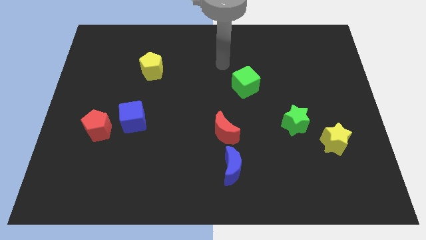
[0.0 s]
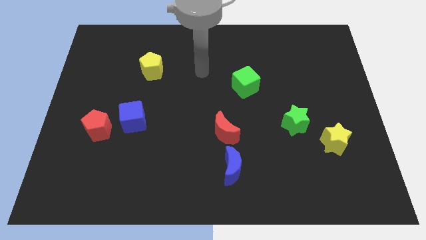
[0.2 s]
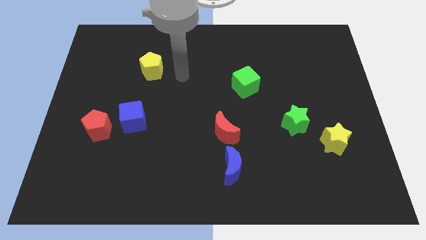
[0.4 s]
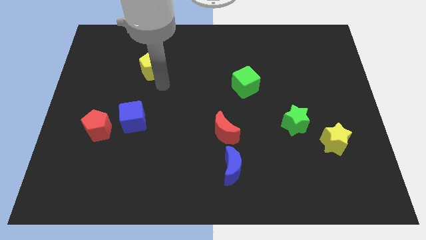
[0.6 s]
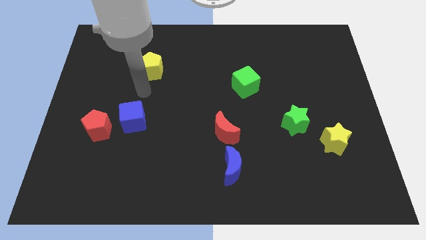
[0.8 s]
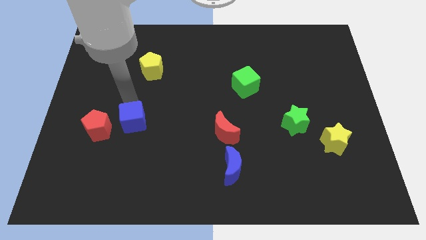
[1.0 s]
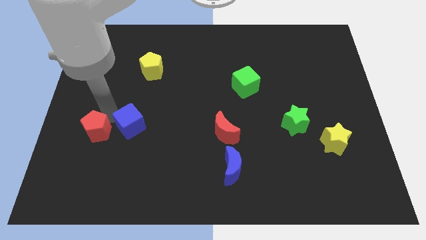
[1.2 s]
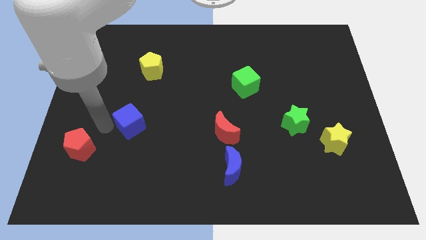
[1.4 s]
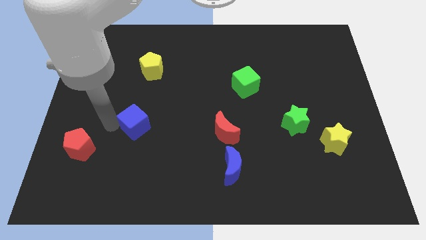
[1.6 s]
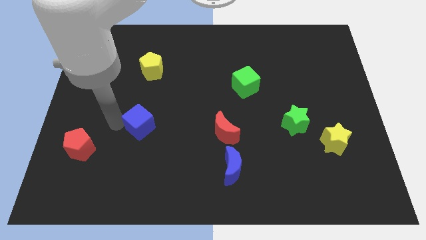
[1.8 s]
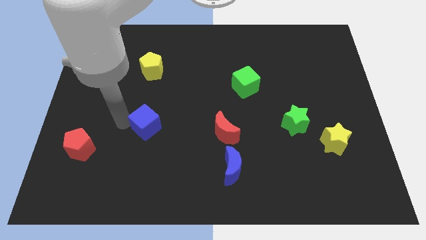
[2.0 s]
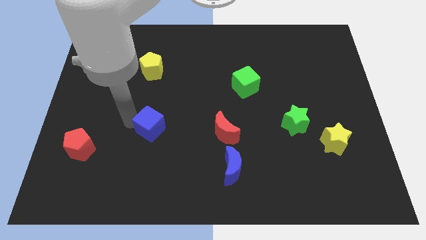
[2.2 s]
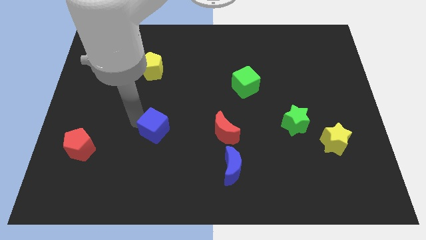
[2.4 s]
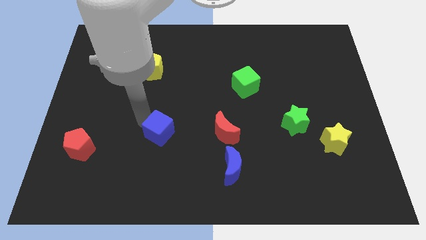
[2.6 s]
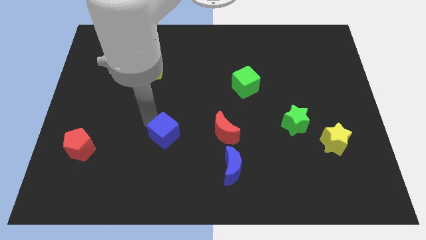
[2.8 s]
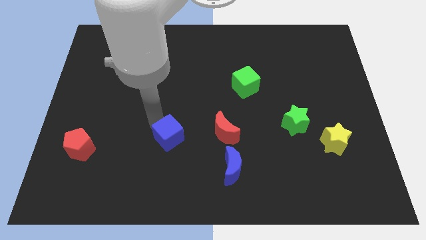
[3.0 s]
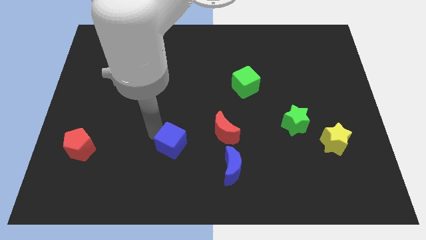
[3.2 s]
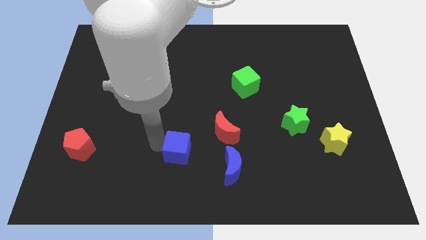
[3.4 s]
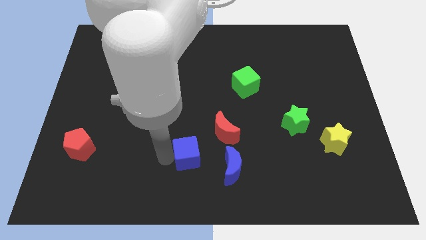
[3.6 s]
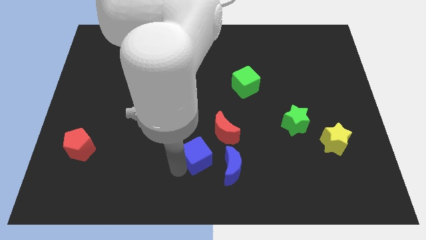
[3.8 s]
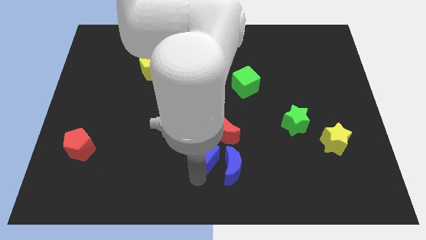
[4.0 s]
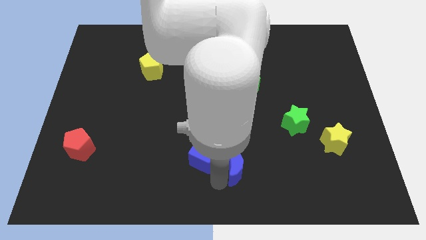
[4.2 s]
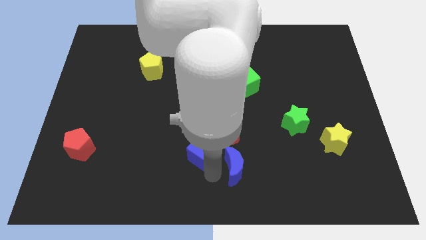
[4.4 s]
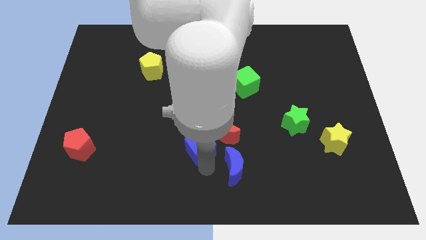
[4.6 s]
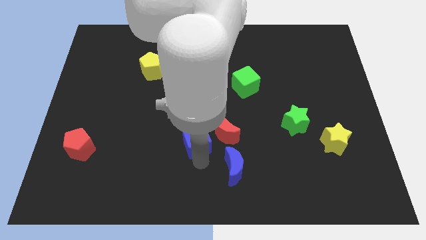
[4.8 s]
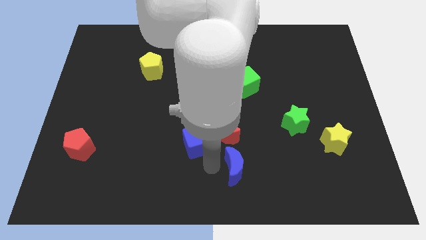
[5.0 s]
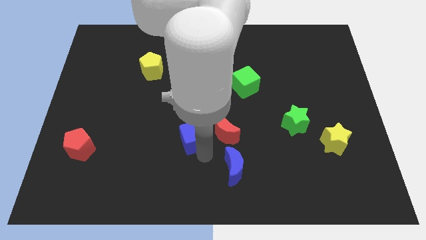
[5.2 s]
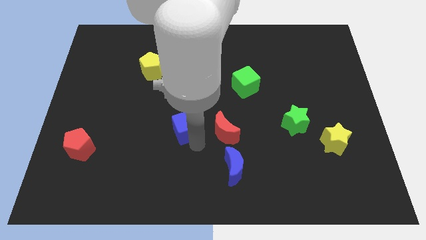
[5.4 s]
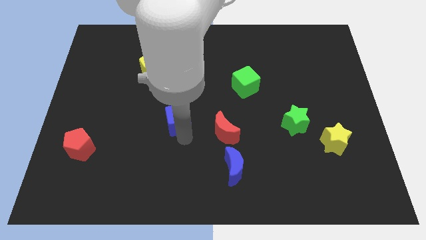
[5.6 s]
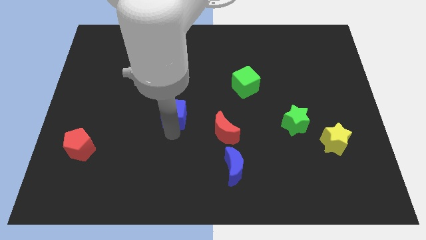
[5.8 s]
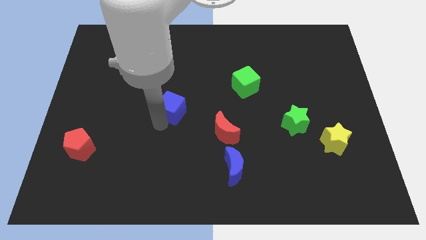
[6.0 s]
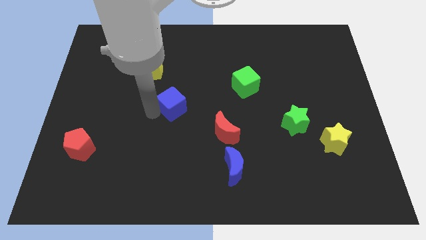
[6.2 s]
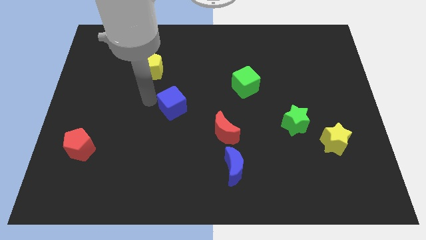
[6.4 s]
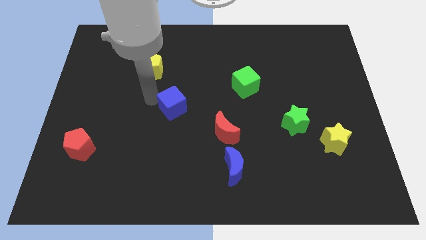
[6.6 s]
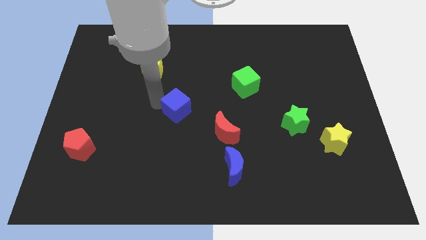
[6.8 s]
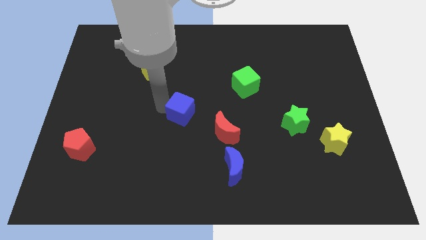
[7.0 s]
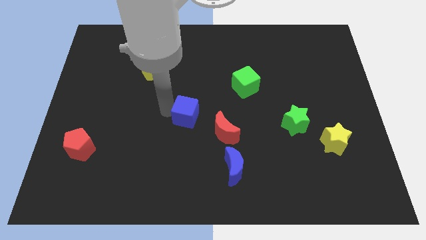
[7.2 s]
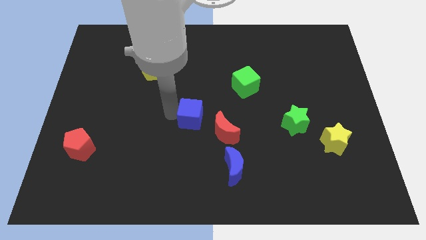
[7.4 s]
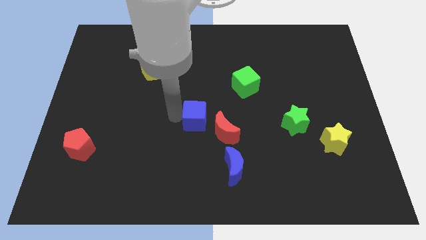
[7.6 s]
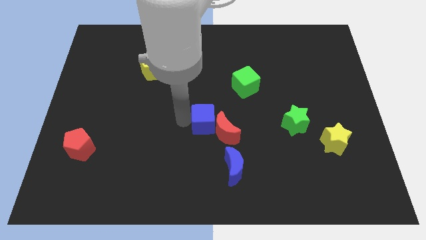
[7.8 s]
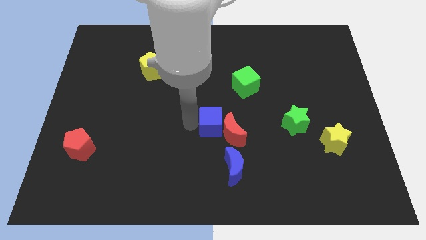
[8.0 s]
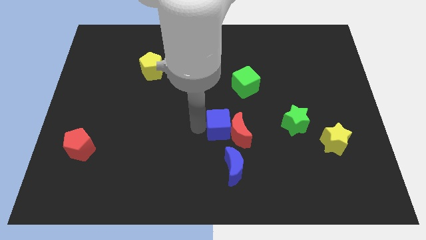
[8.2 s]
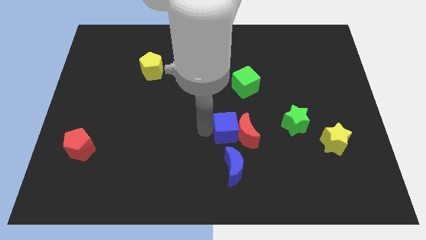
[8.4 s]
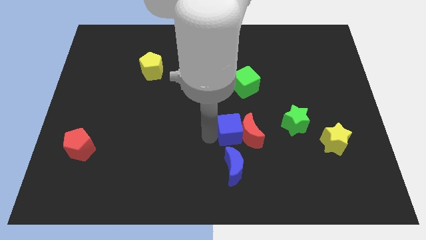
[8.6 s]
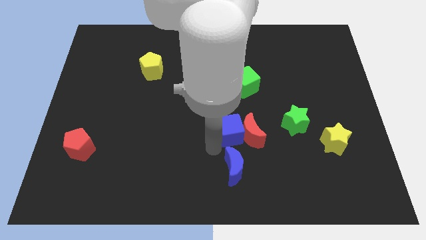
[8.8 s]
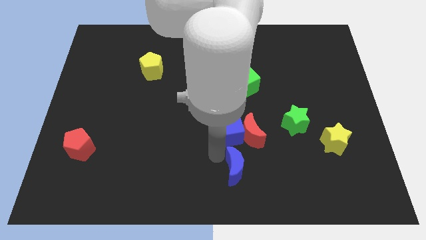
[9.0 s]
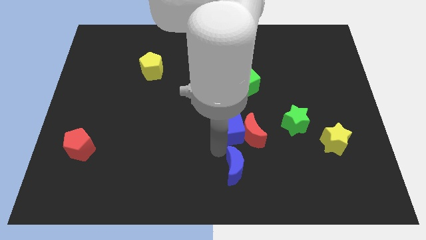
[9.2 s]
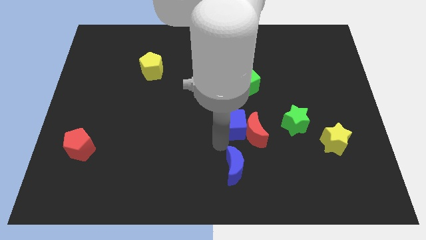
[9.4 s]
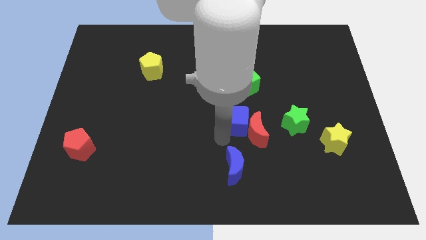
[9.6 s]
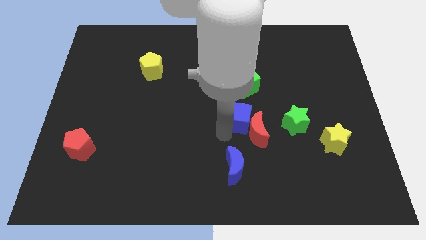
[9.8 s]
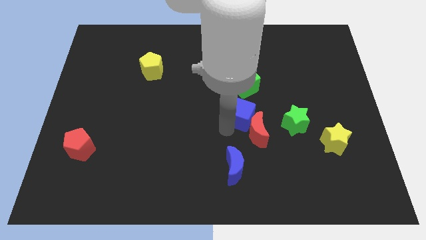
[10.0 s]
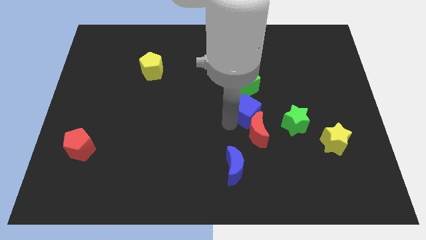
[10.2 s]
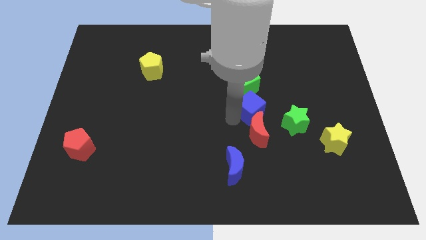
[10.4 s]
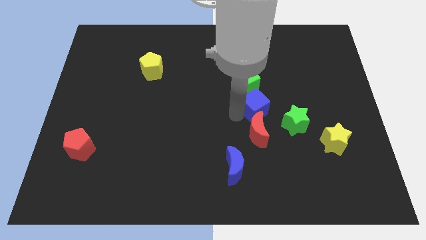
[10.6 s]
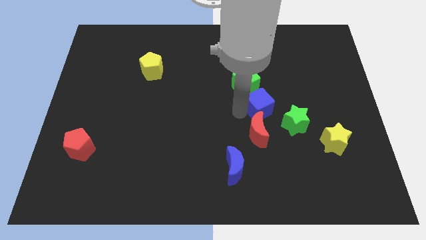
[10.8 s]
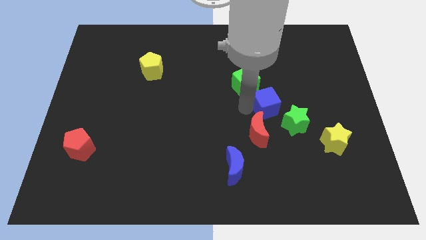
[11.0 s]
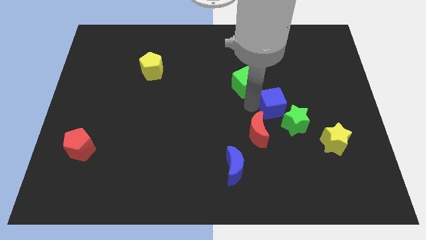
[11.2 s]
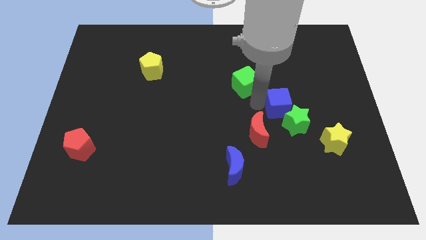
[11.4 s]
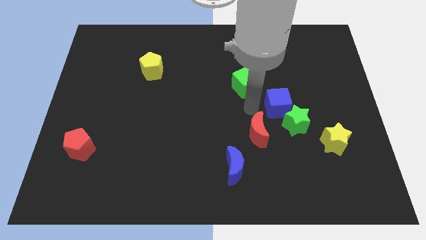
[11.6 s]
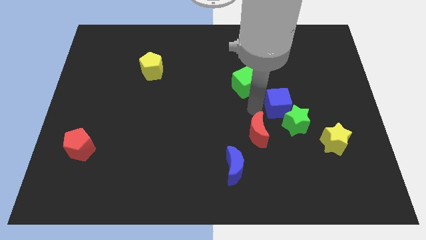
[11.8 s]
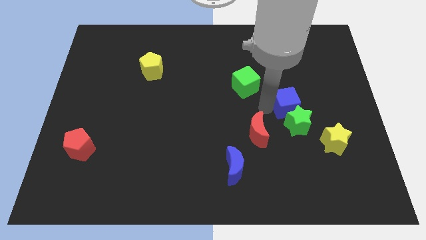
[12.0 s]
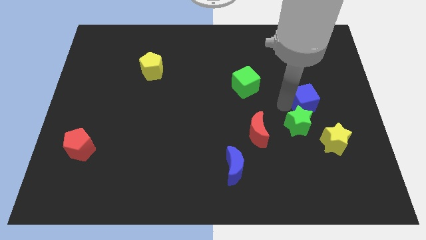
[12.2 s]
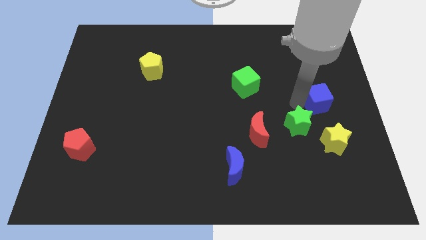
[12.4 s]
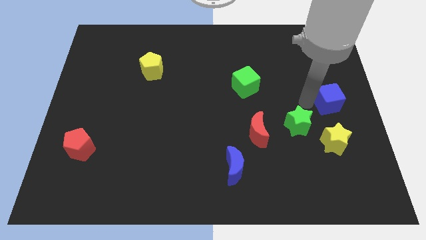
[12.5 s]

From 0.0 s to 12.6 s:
put the blue cube to the right side of the board
